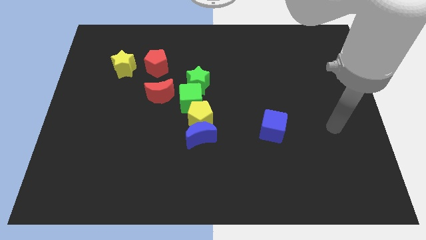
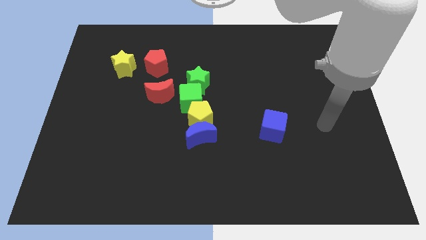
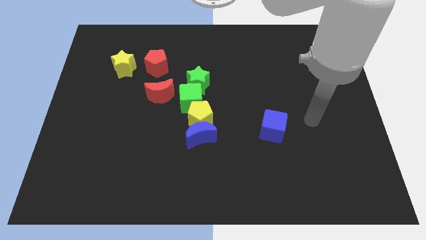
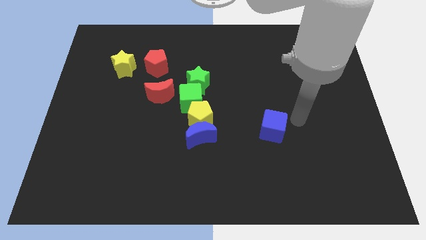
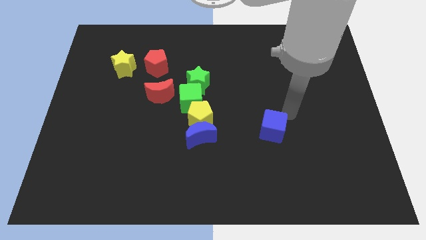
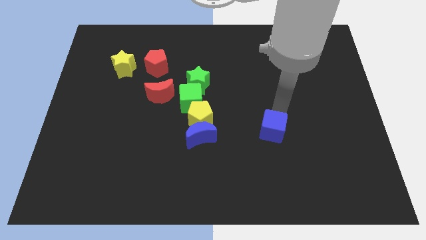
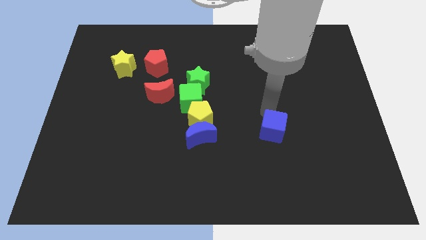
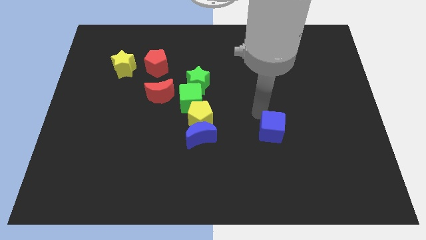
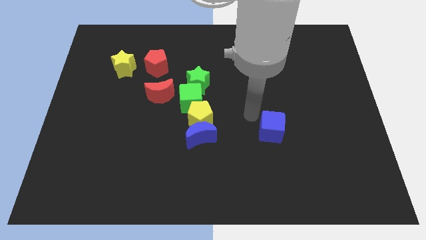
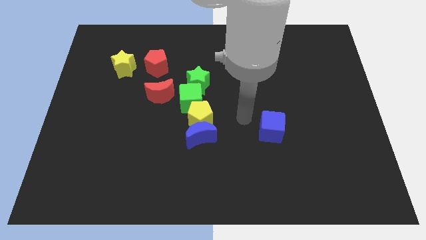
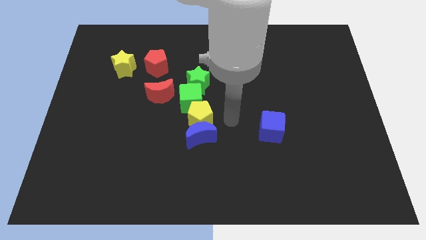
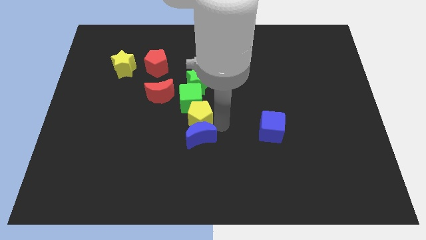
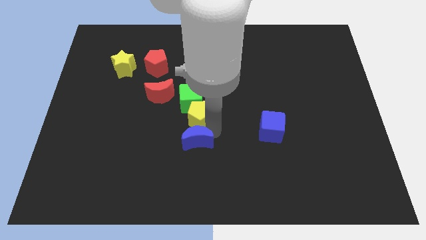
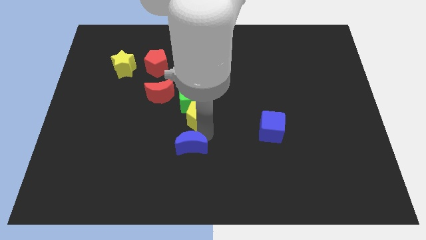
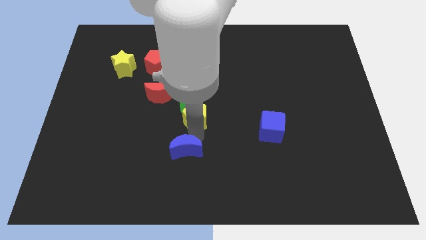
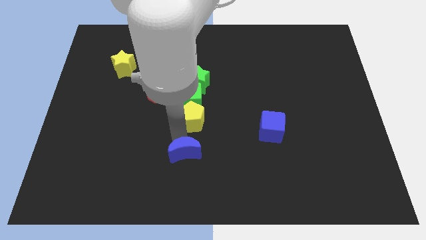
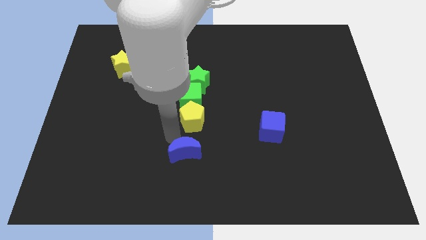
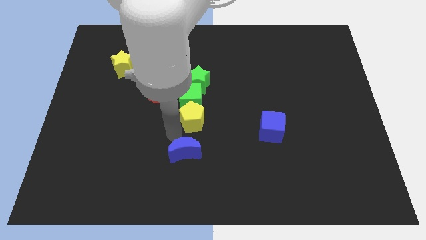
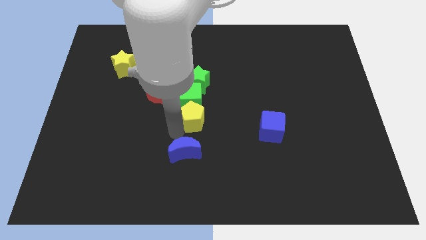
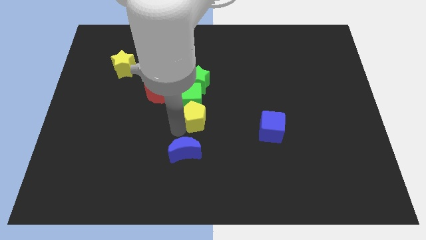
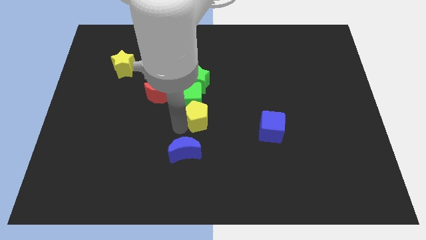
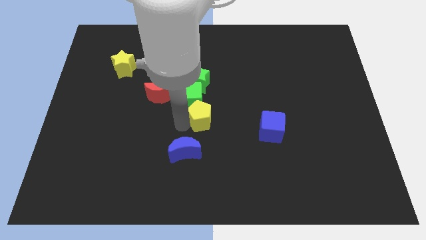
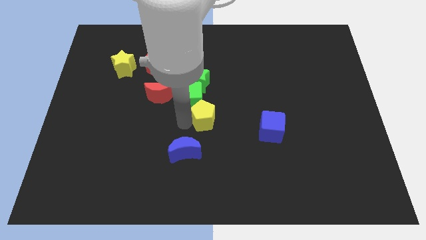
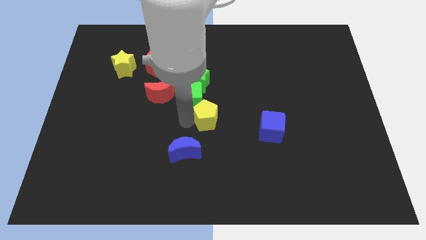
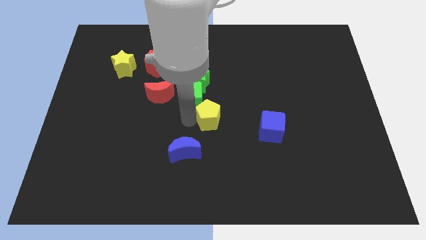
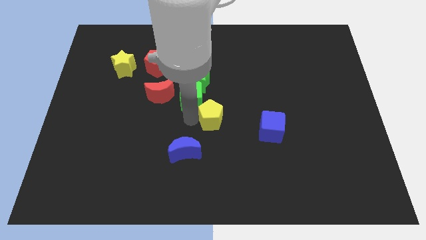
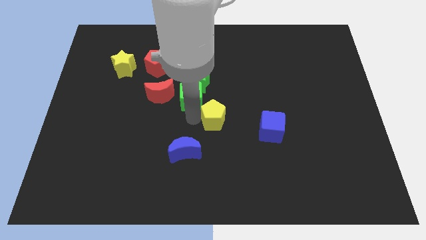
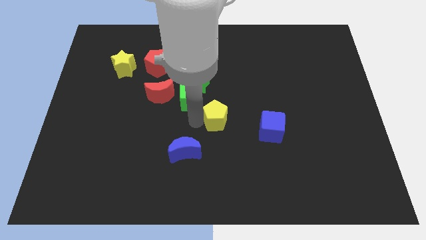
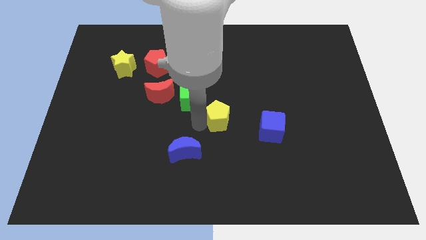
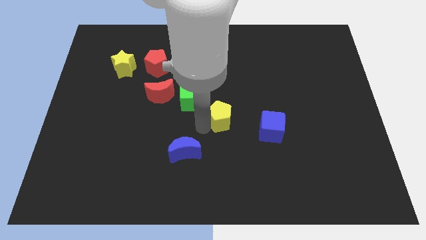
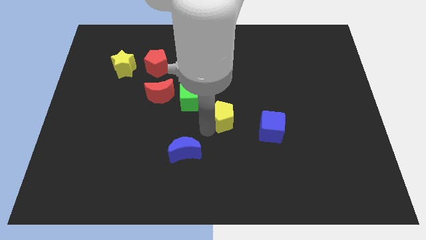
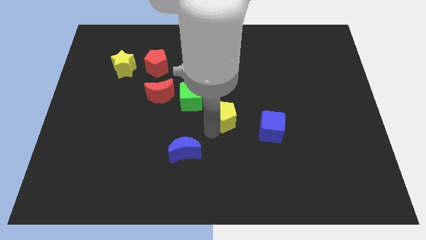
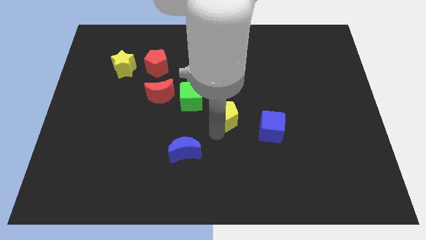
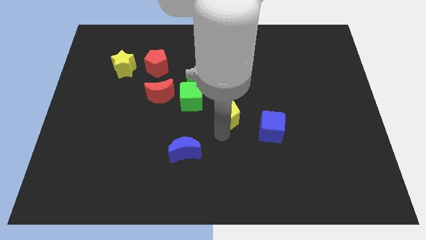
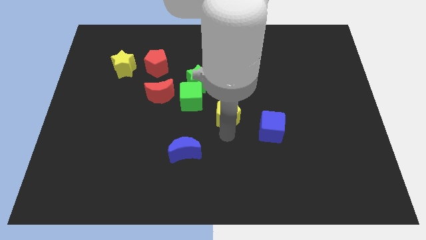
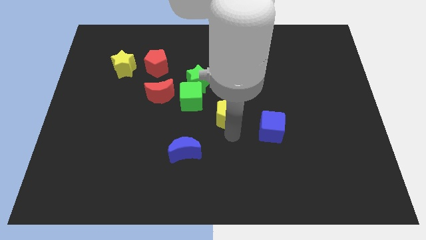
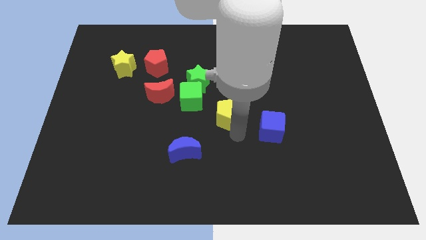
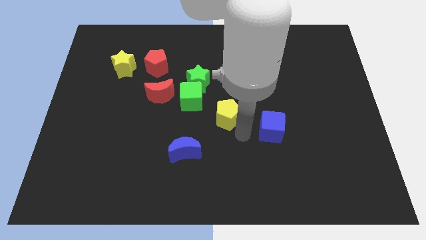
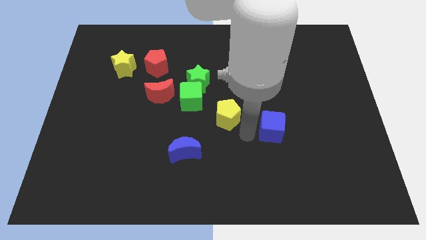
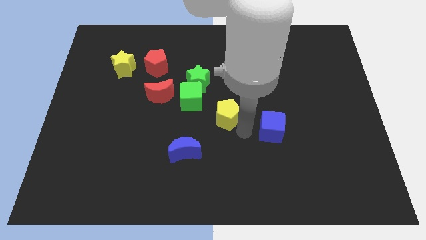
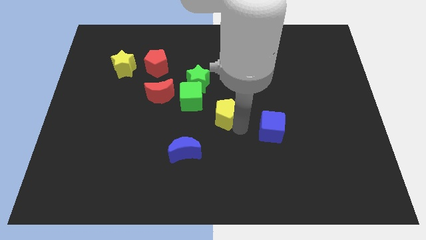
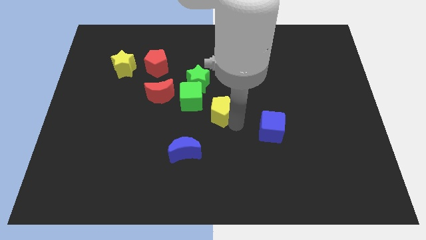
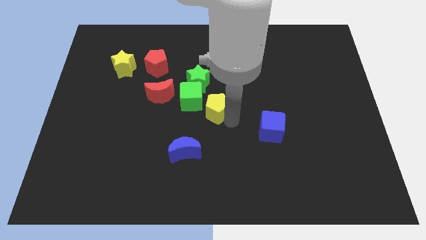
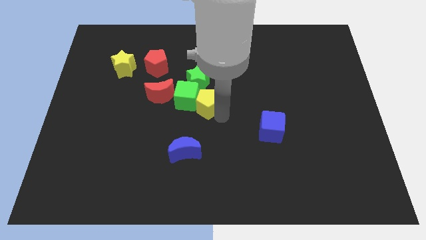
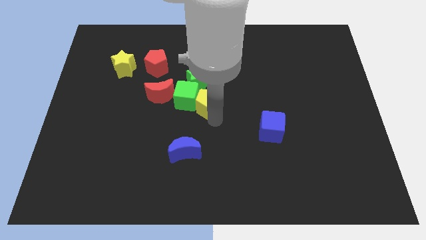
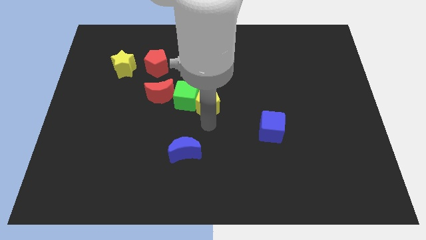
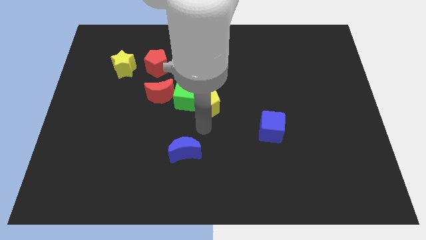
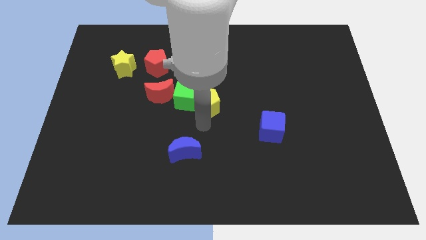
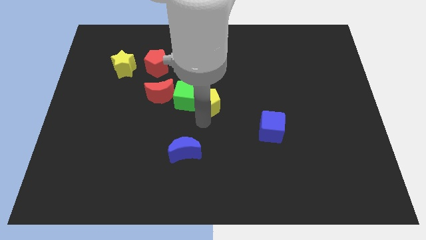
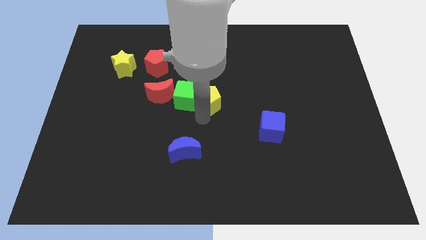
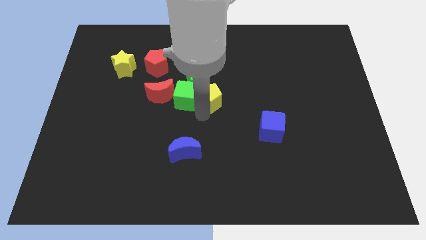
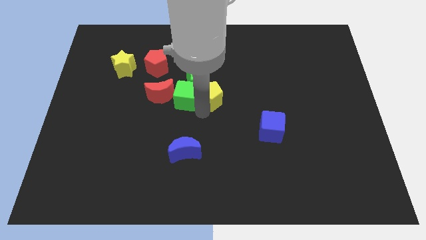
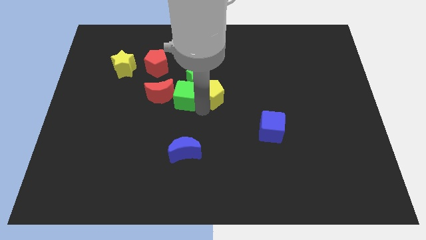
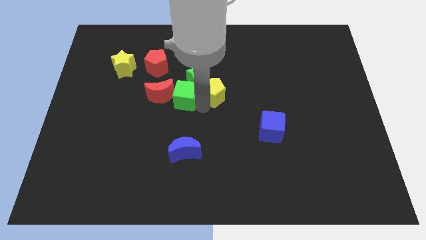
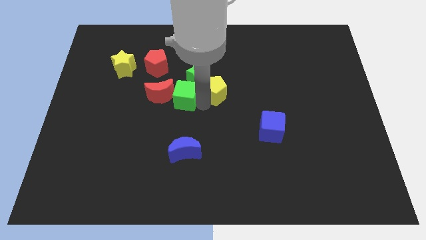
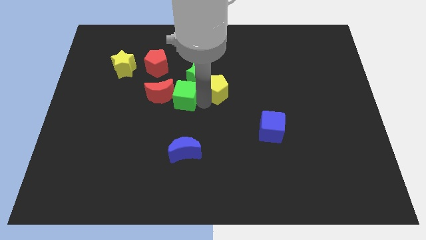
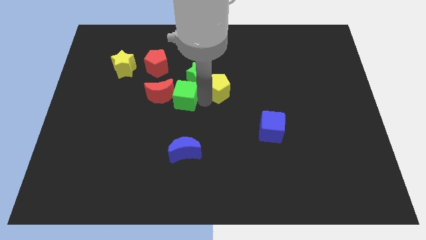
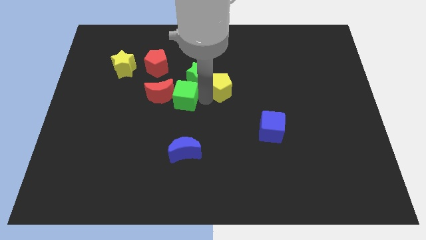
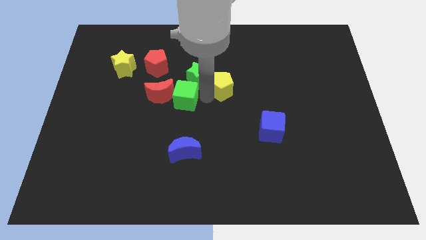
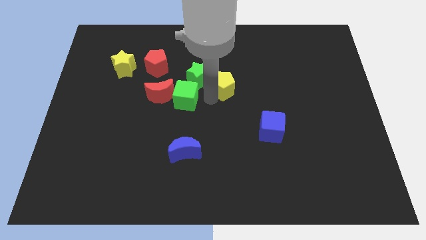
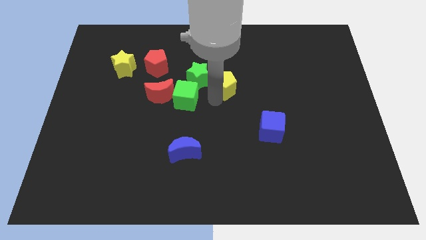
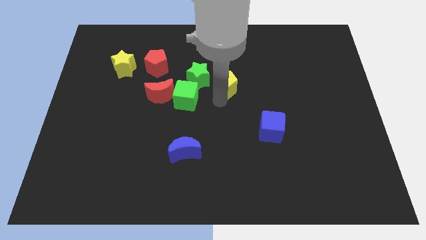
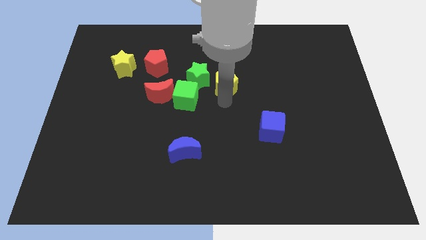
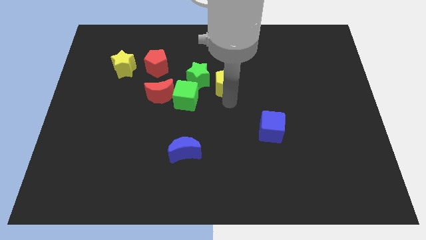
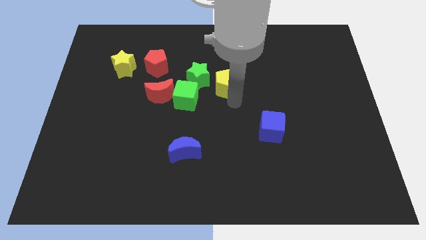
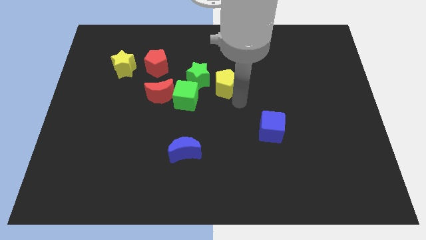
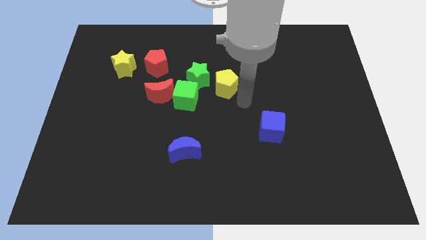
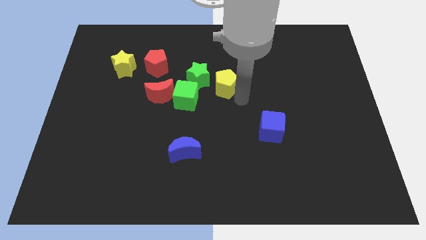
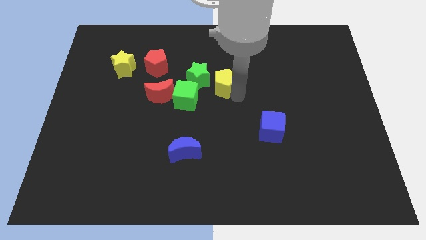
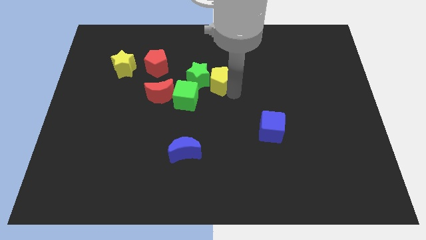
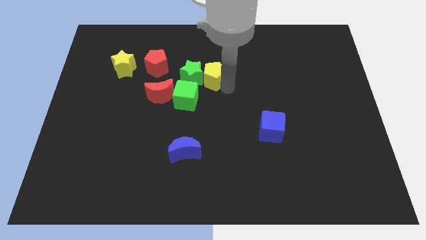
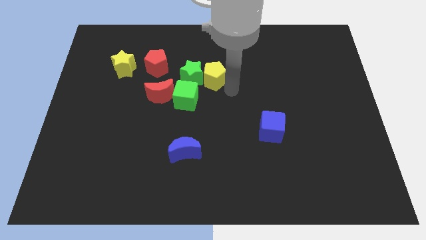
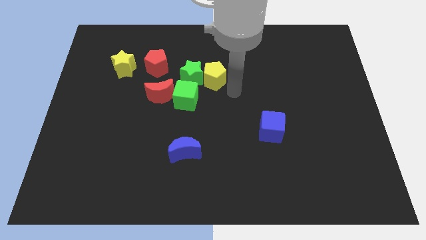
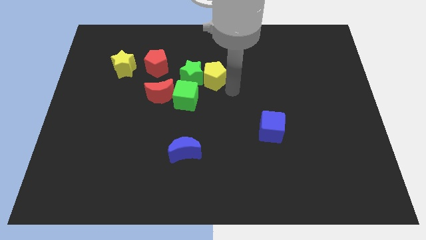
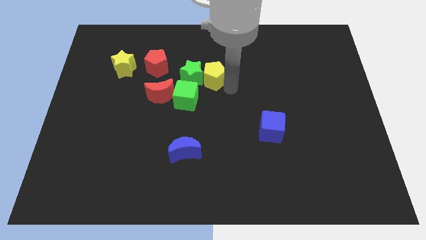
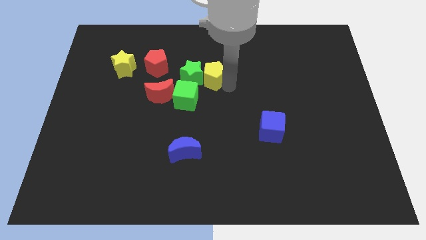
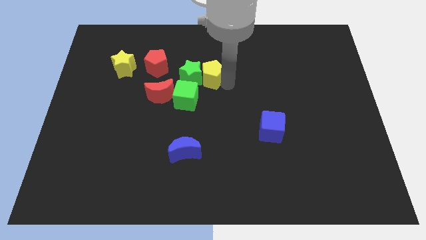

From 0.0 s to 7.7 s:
put the yellow pentagon to the right side of the red pentagon
